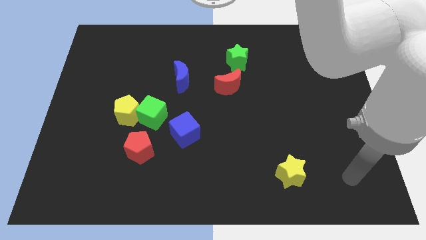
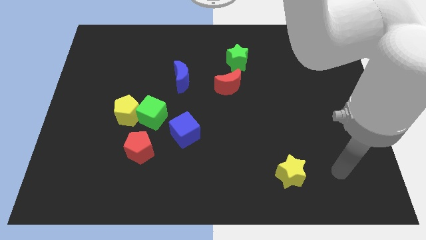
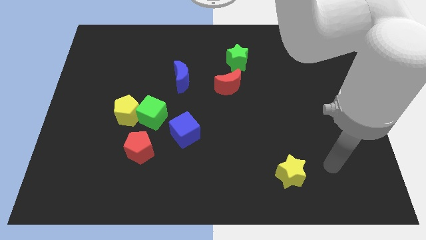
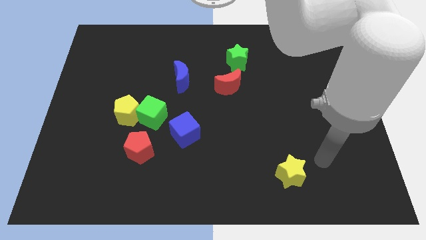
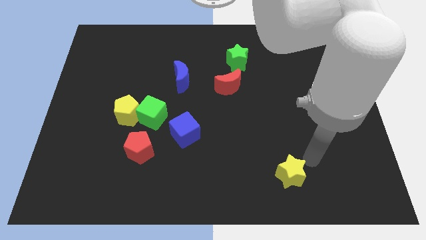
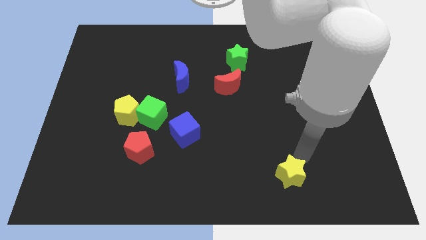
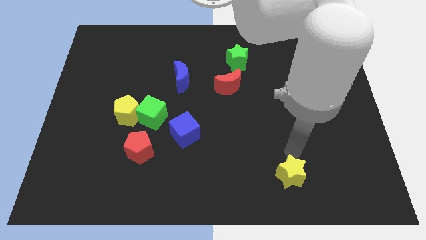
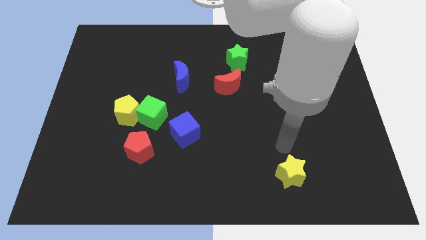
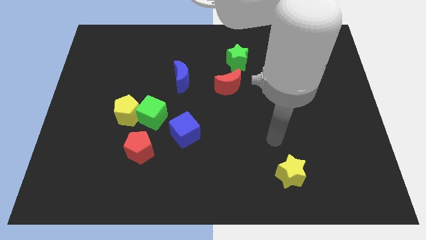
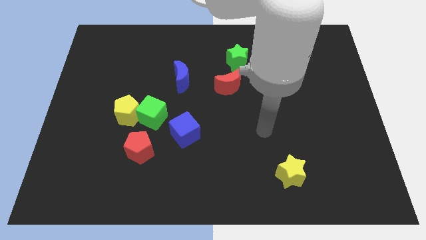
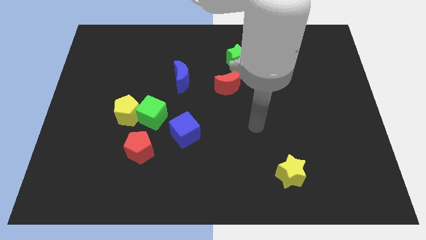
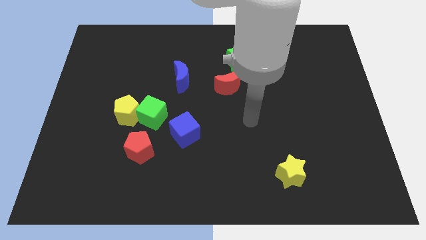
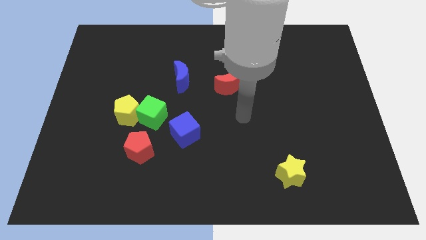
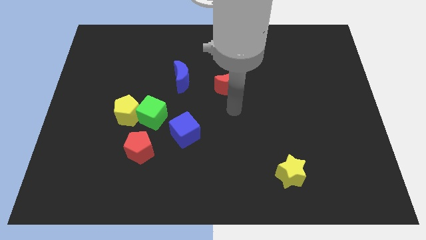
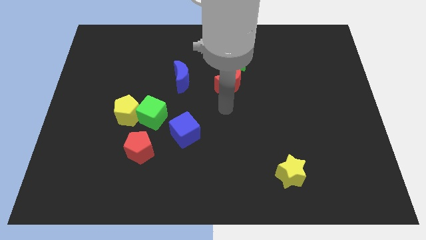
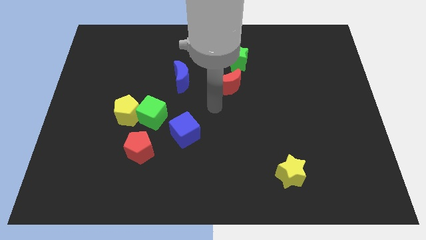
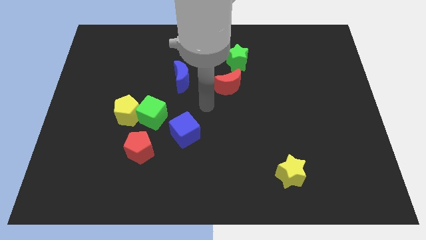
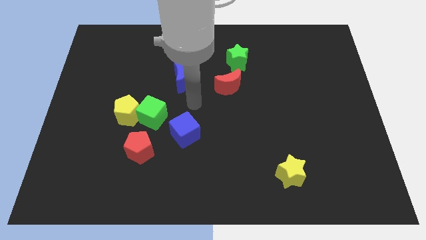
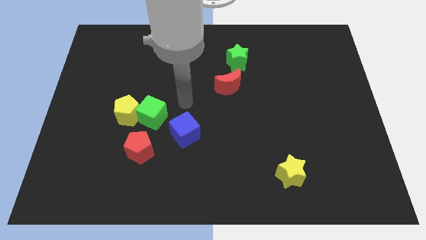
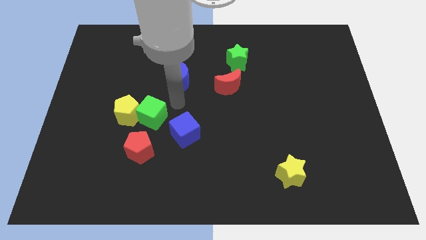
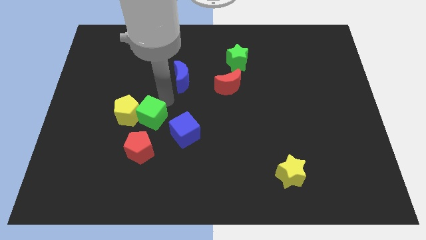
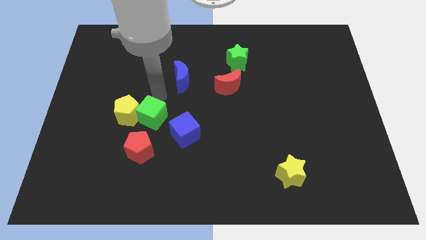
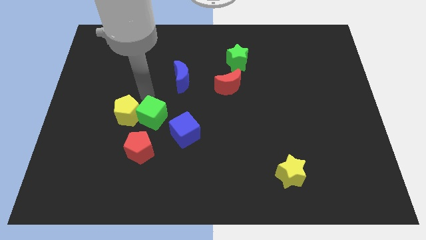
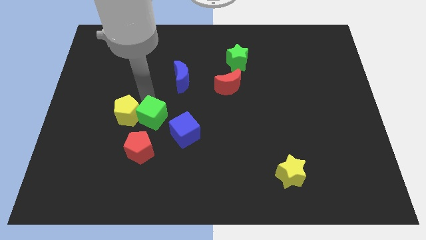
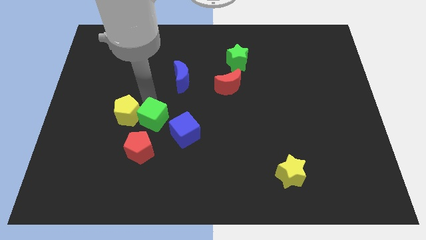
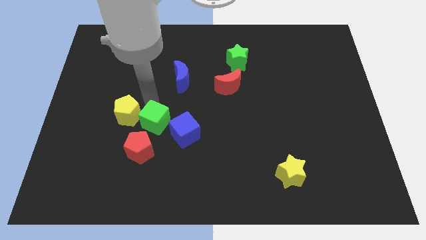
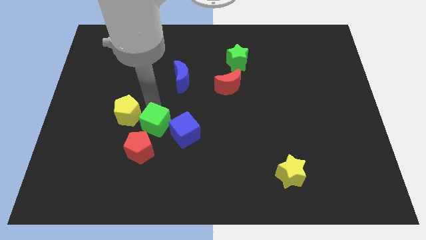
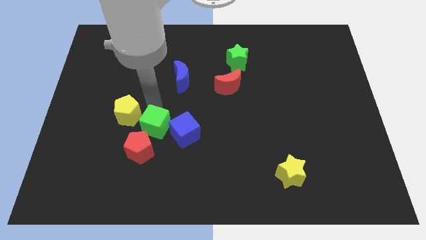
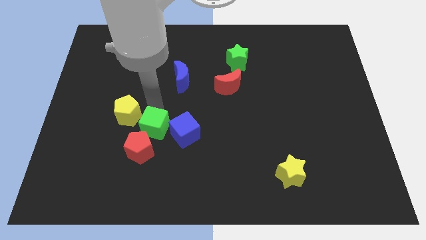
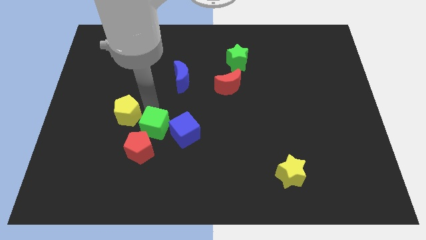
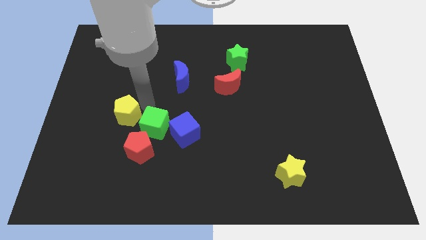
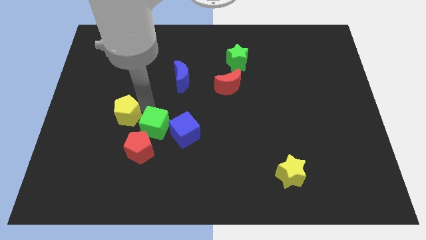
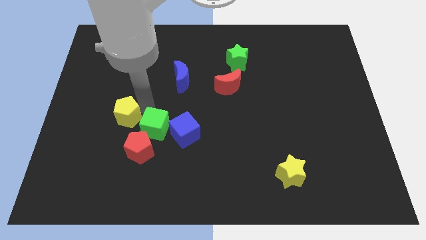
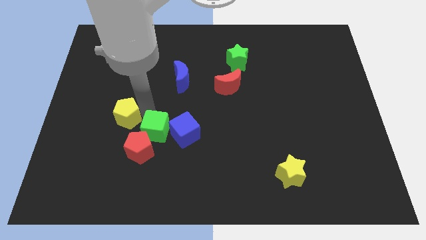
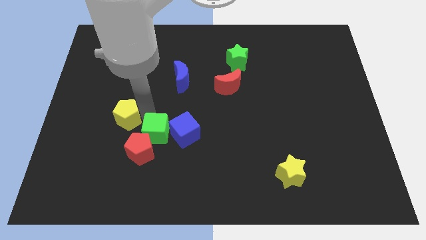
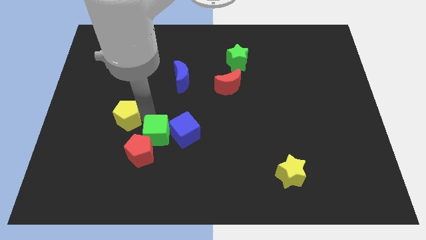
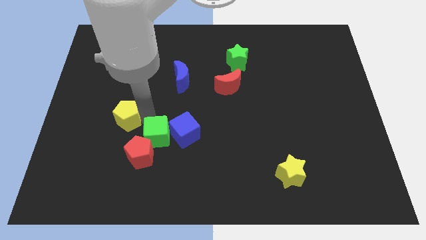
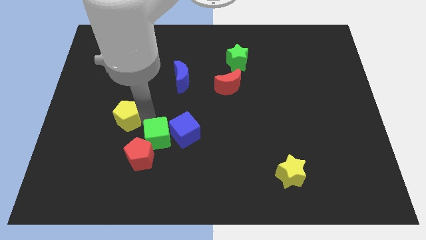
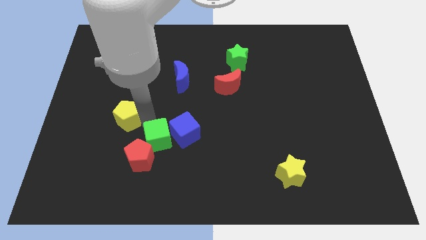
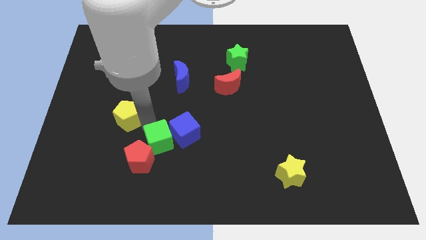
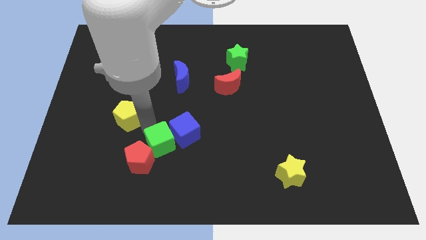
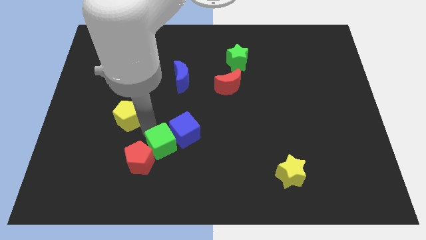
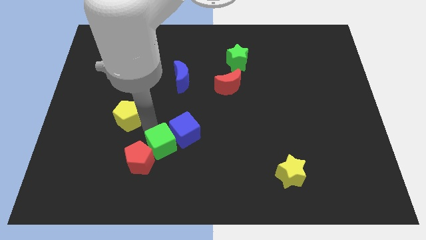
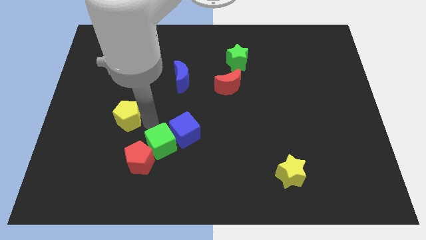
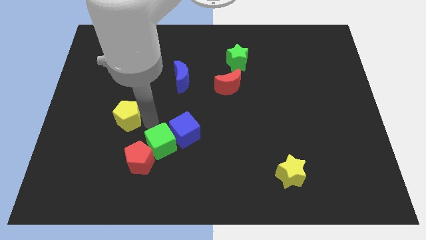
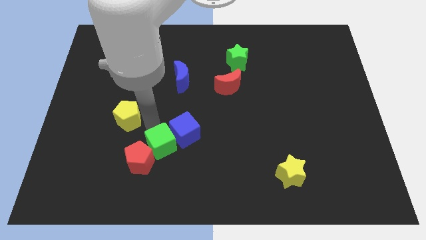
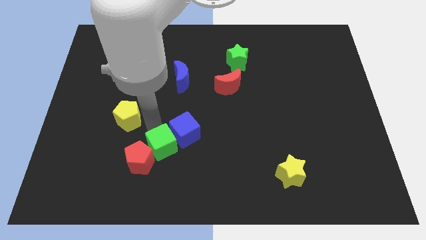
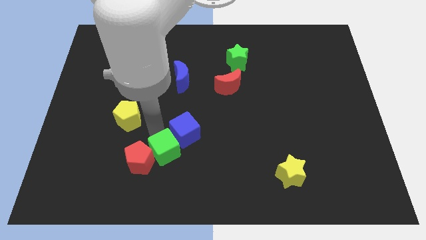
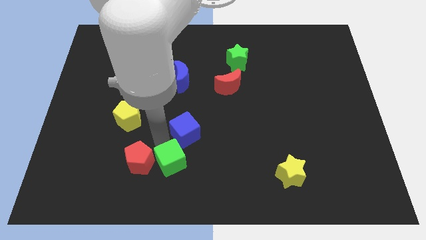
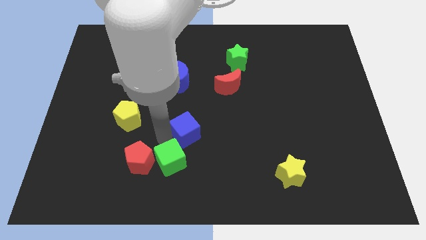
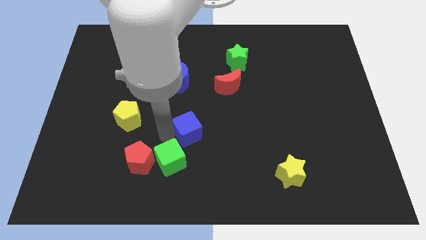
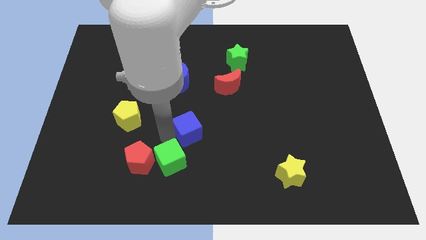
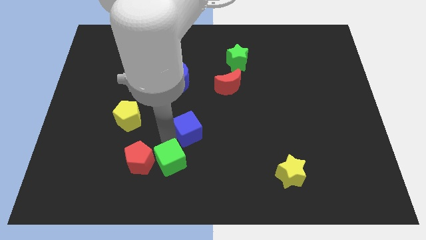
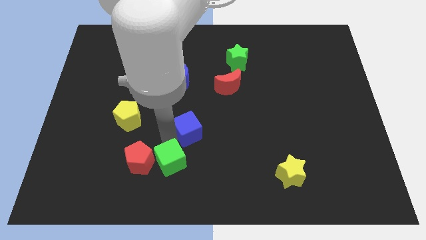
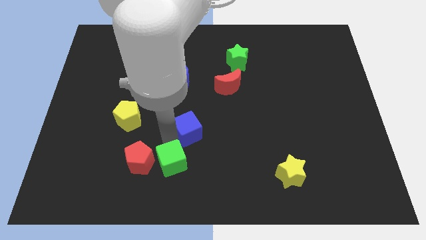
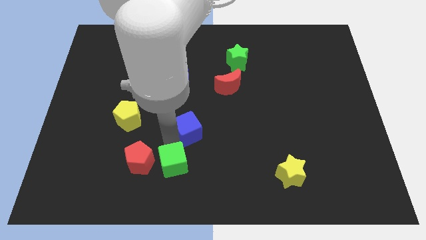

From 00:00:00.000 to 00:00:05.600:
put the green cube to the bottom

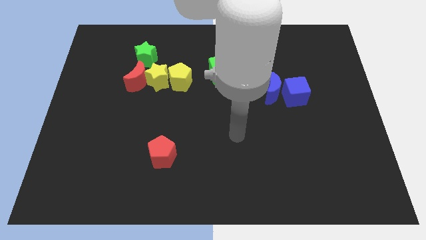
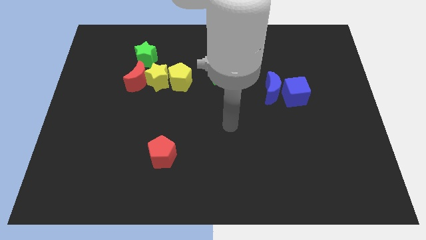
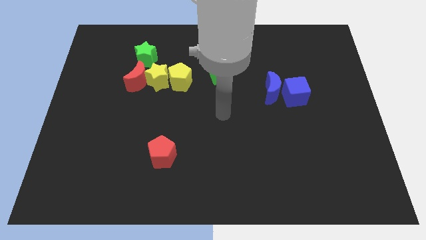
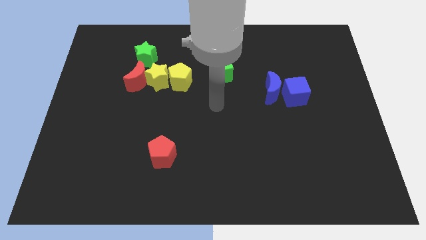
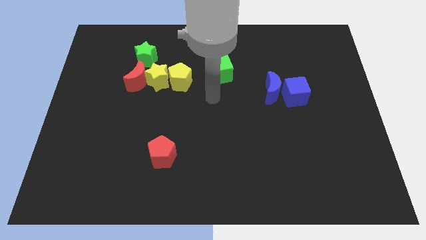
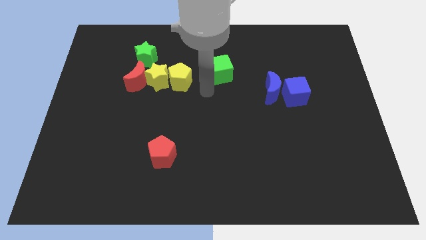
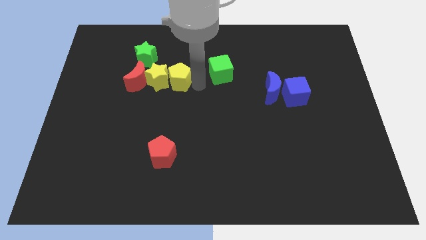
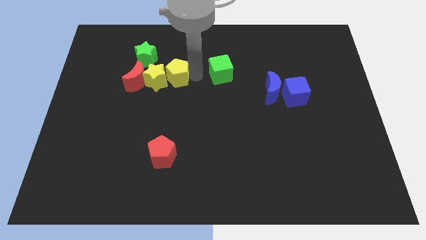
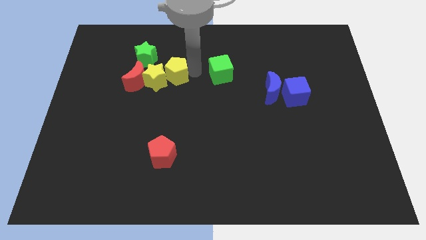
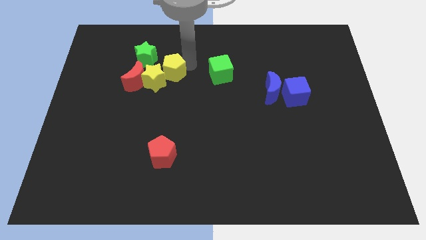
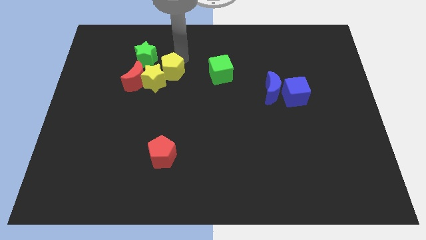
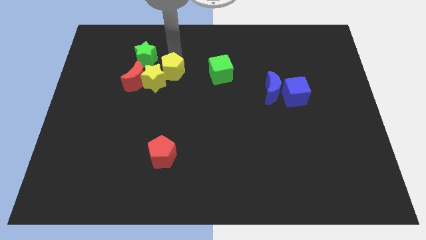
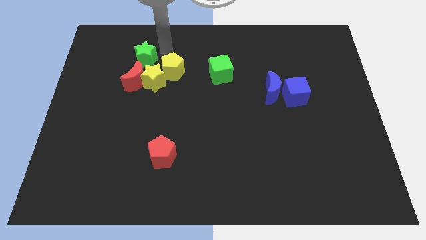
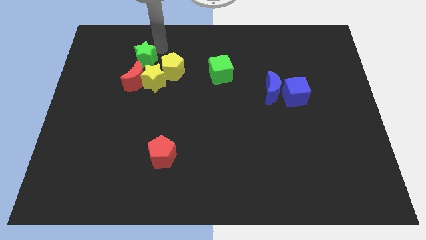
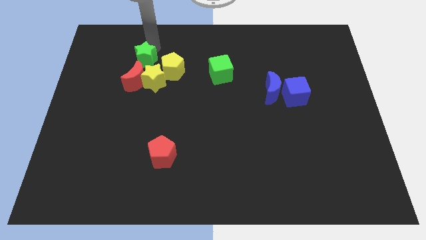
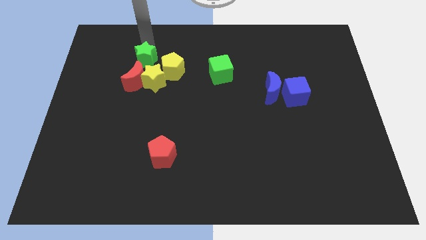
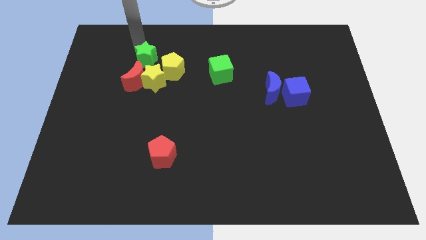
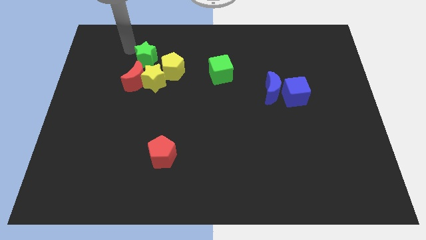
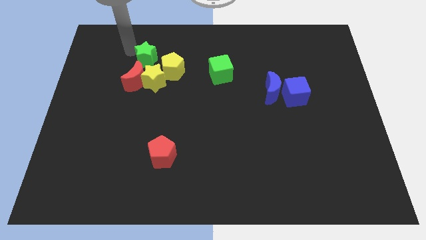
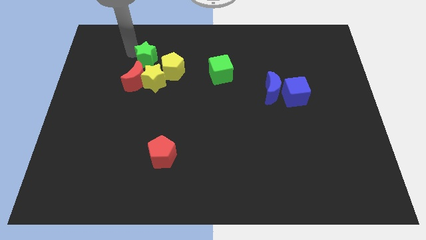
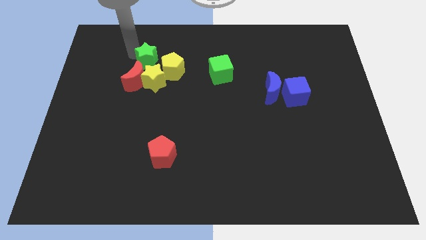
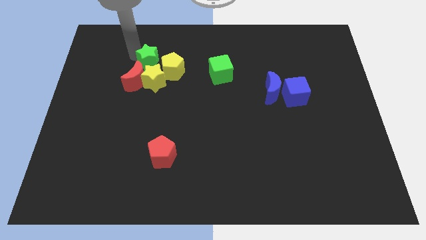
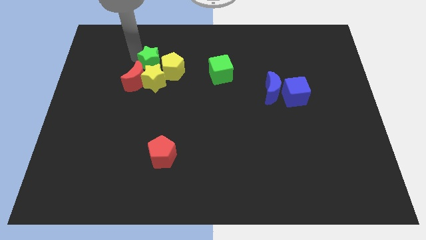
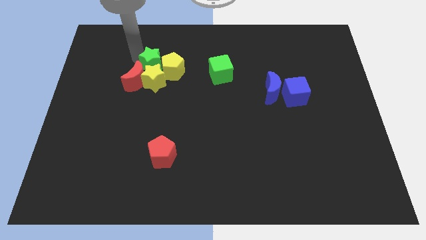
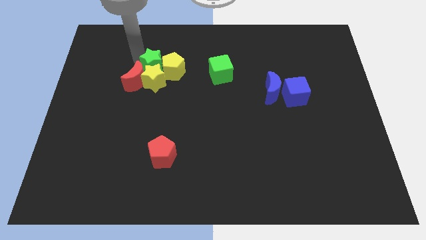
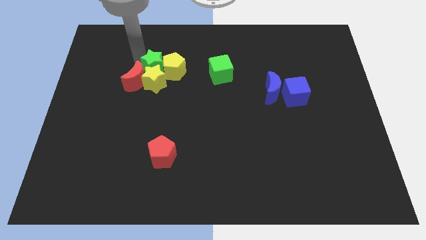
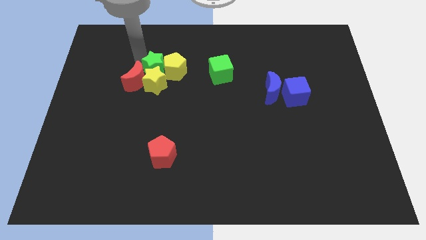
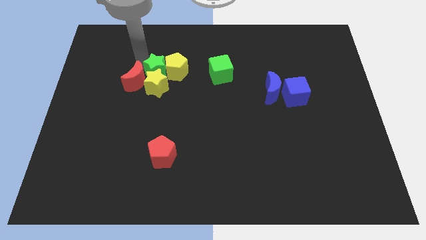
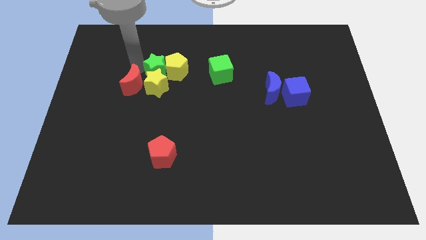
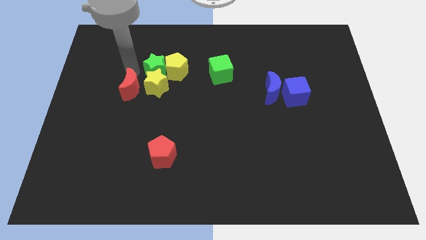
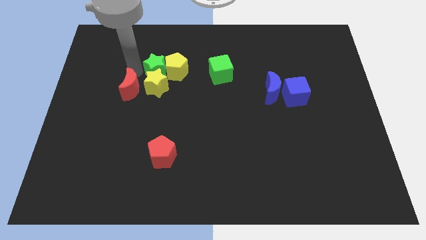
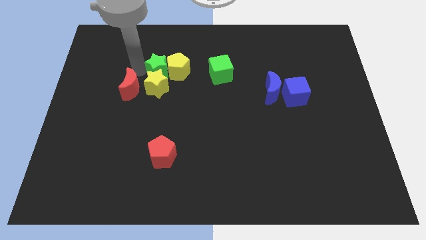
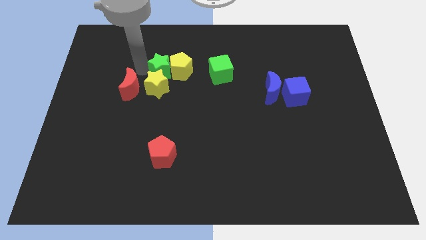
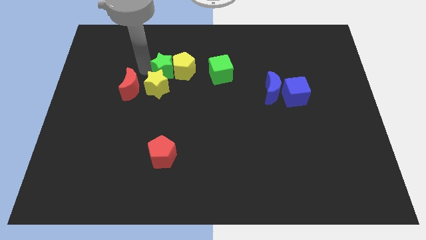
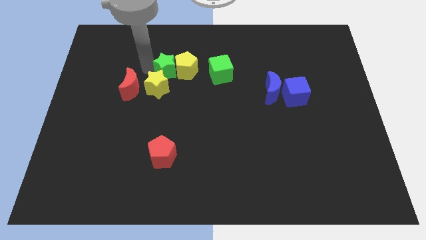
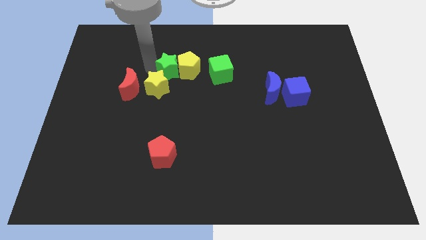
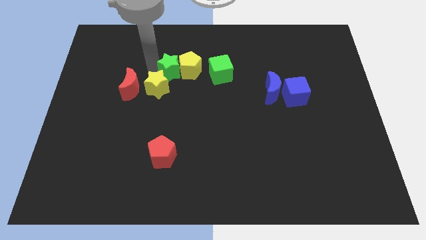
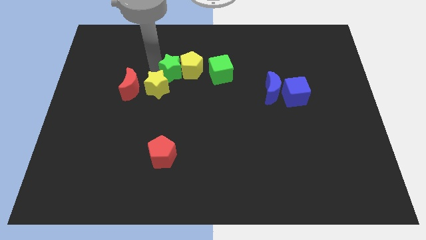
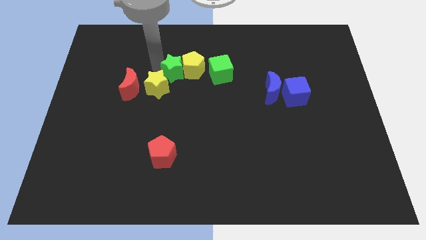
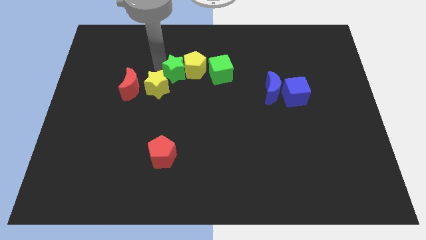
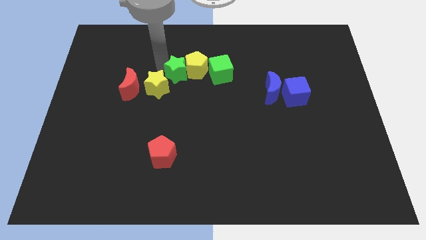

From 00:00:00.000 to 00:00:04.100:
put the green star to the center
